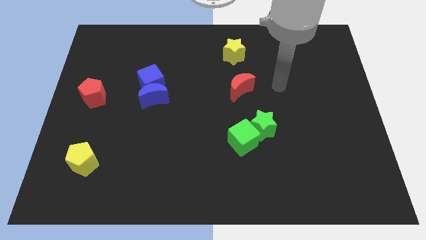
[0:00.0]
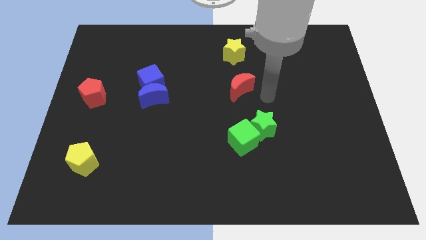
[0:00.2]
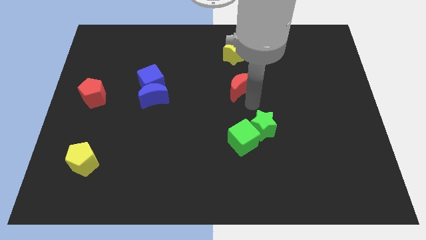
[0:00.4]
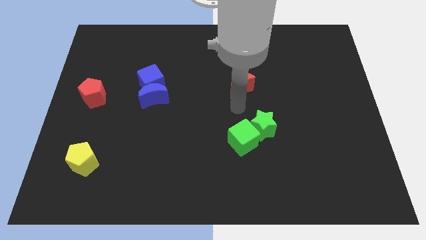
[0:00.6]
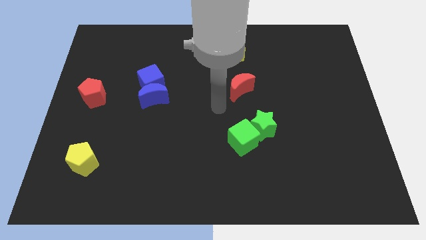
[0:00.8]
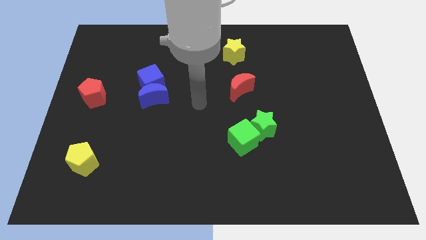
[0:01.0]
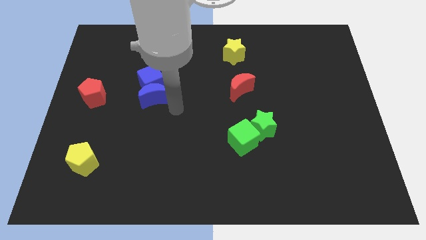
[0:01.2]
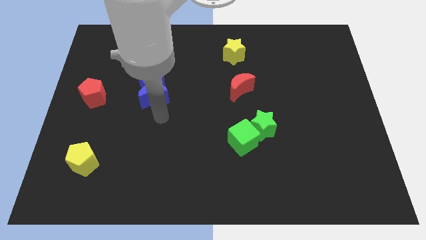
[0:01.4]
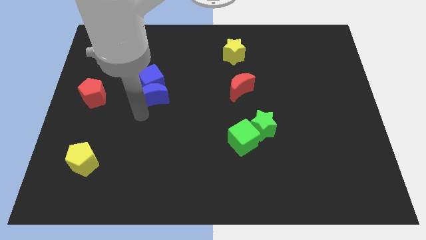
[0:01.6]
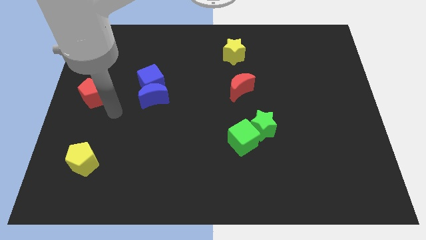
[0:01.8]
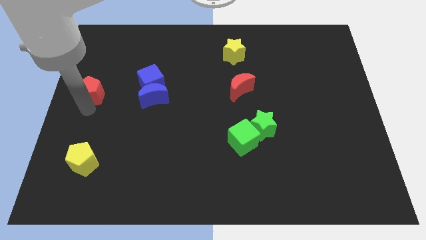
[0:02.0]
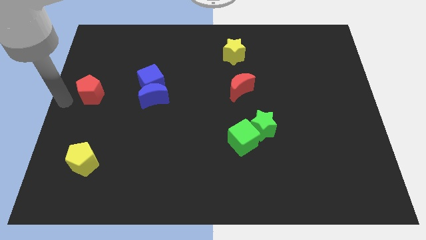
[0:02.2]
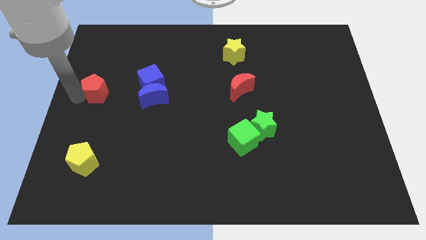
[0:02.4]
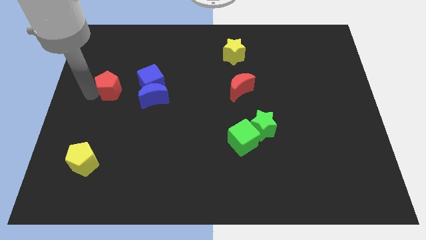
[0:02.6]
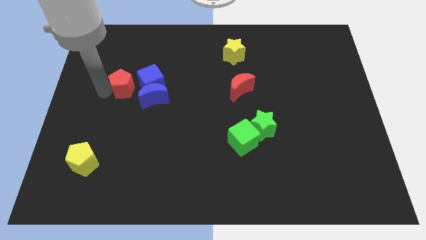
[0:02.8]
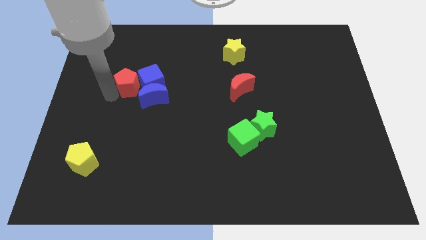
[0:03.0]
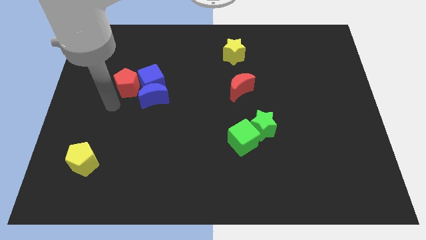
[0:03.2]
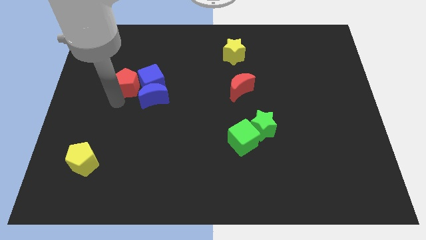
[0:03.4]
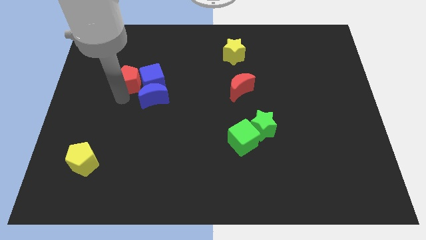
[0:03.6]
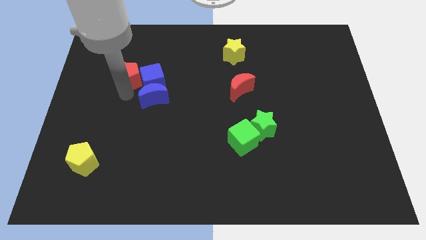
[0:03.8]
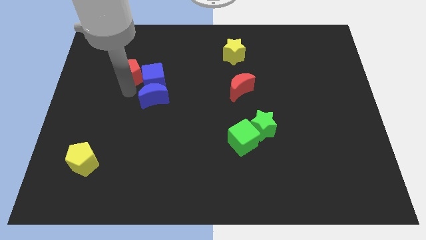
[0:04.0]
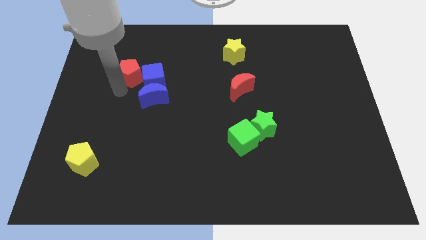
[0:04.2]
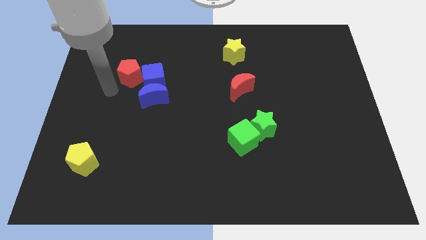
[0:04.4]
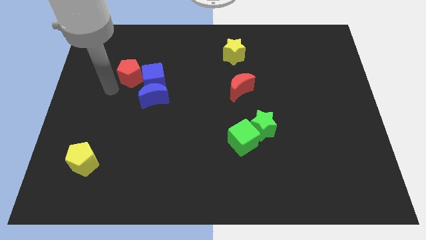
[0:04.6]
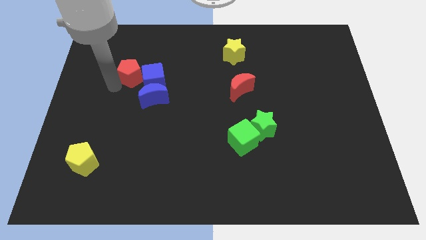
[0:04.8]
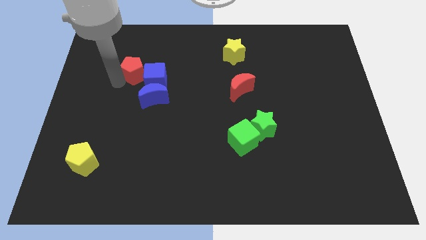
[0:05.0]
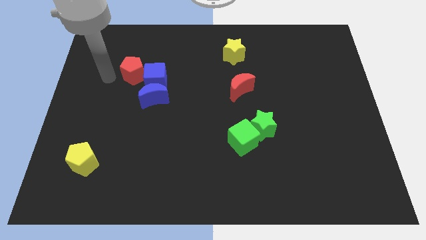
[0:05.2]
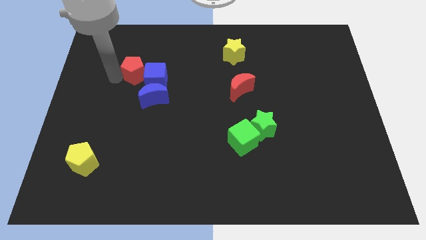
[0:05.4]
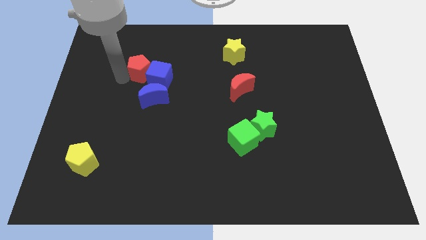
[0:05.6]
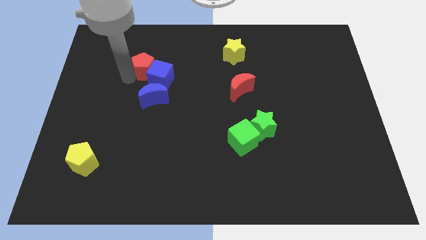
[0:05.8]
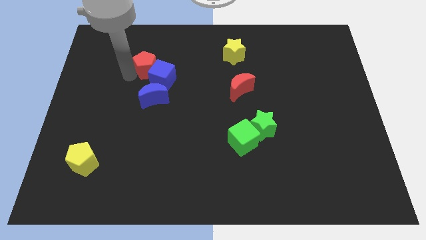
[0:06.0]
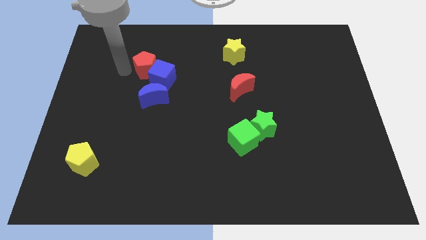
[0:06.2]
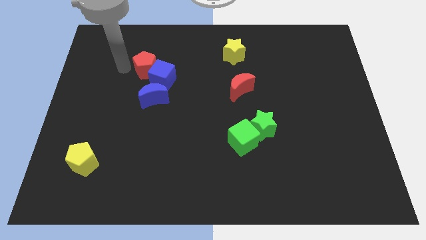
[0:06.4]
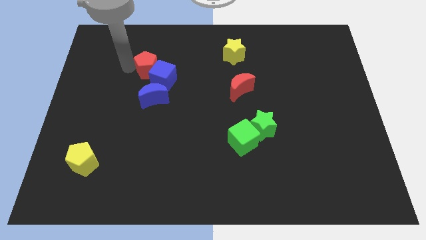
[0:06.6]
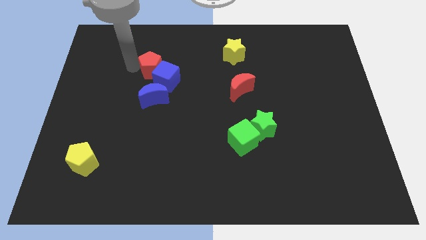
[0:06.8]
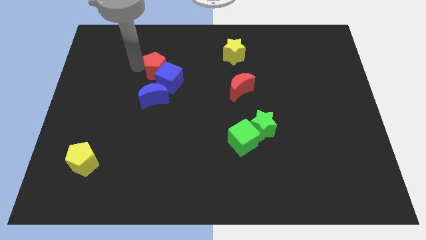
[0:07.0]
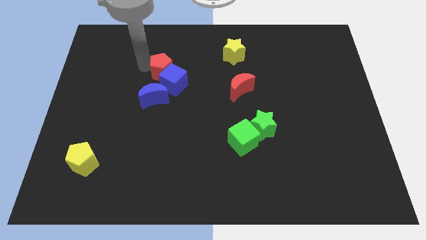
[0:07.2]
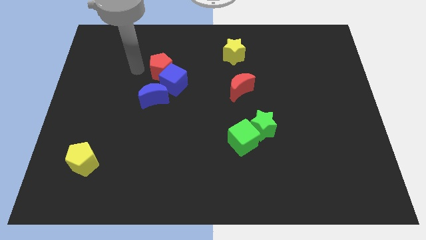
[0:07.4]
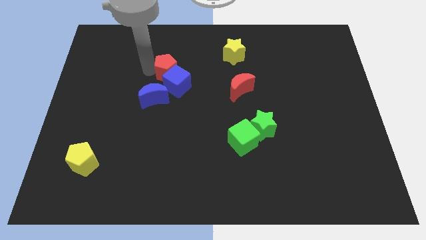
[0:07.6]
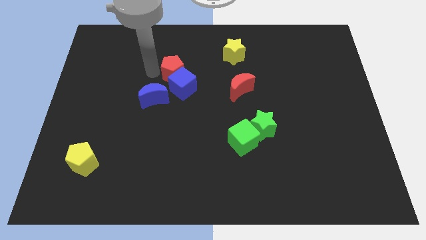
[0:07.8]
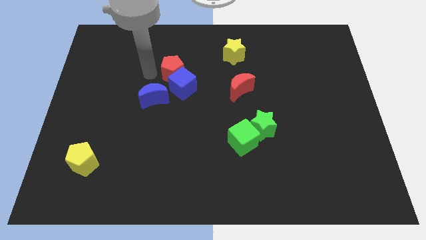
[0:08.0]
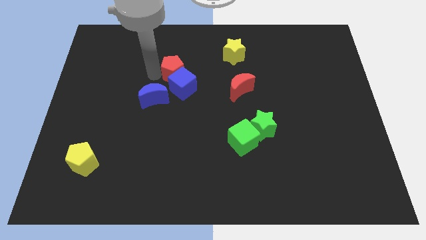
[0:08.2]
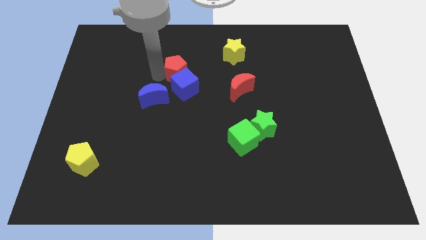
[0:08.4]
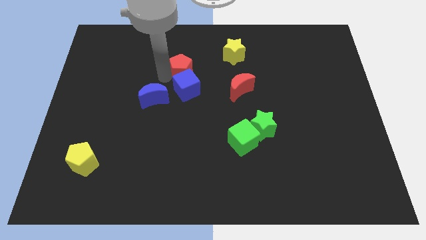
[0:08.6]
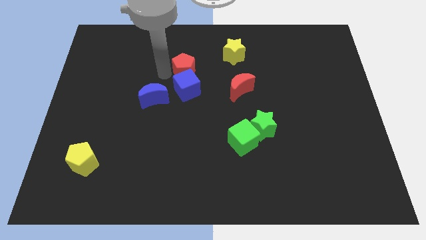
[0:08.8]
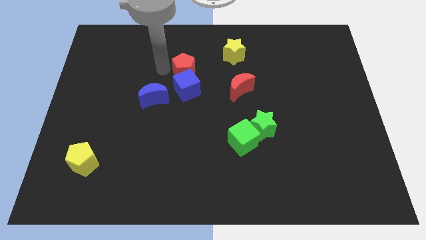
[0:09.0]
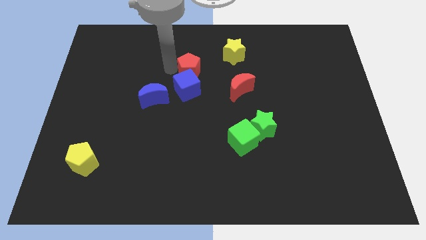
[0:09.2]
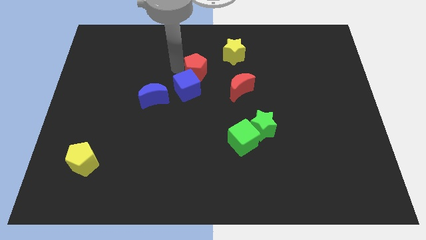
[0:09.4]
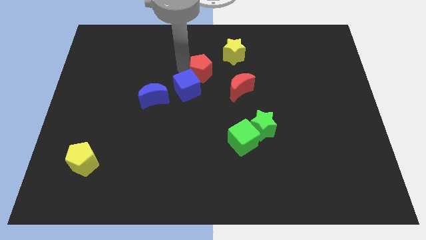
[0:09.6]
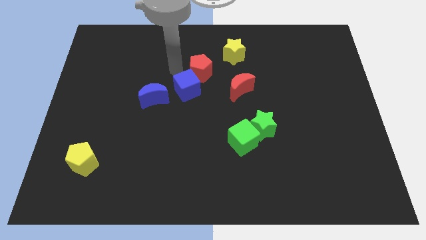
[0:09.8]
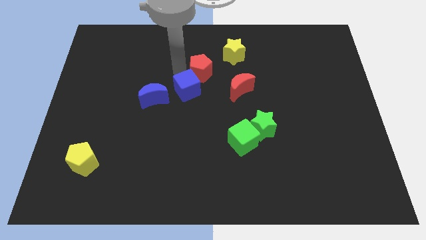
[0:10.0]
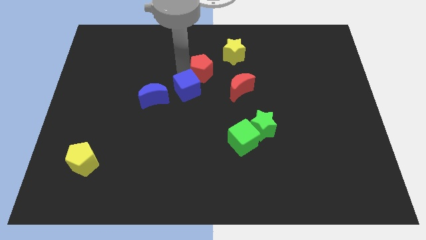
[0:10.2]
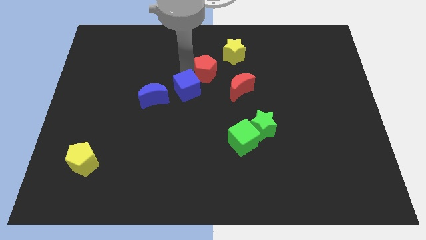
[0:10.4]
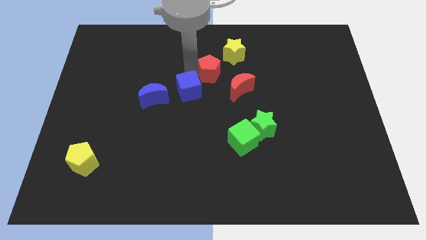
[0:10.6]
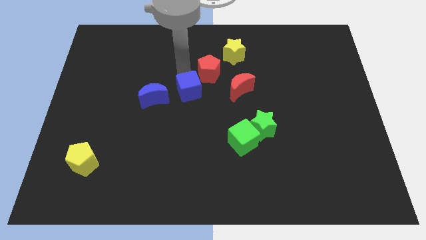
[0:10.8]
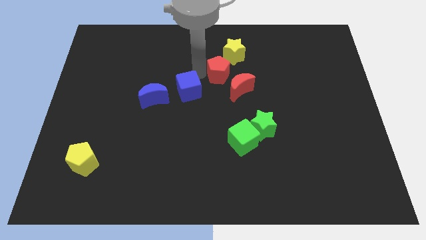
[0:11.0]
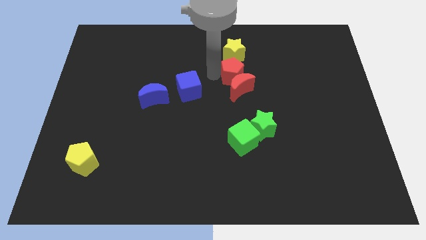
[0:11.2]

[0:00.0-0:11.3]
put the red pentagon to the top right of the red moon

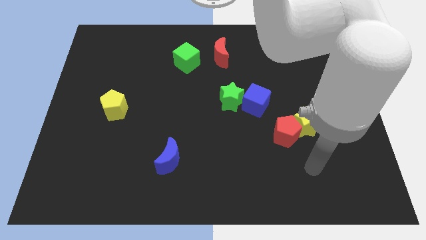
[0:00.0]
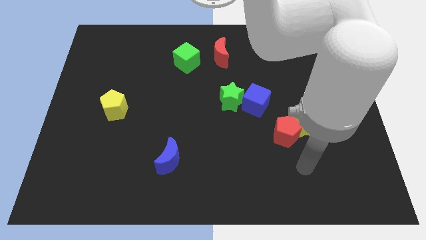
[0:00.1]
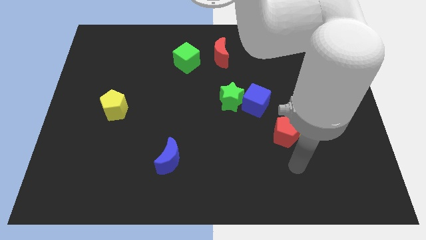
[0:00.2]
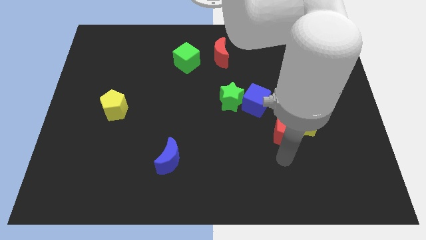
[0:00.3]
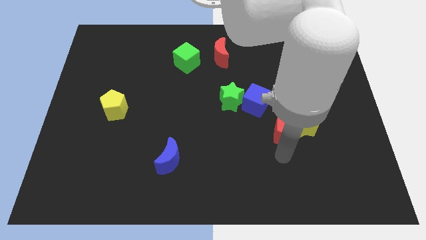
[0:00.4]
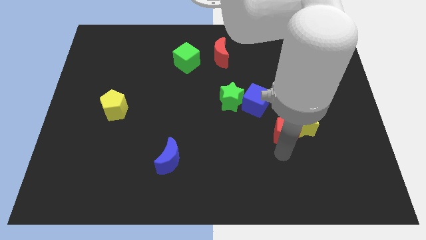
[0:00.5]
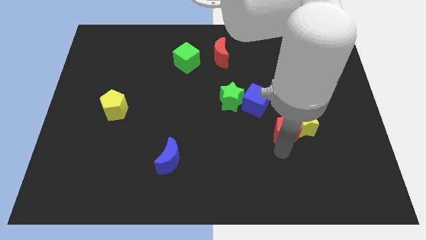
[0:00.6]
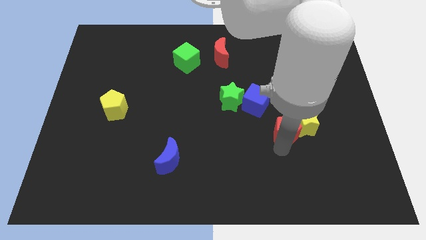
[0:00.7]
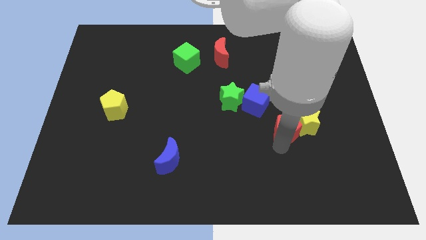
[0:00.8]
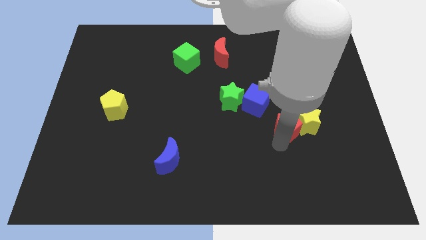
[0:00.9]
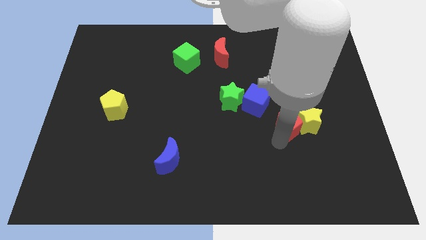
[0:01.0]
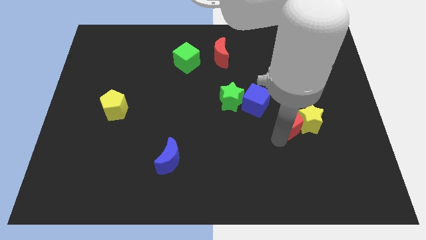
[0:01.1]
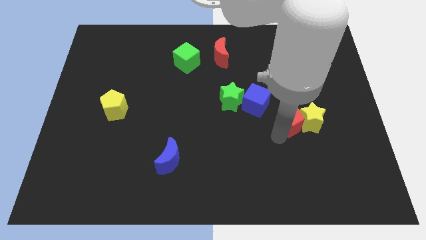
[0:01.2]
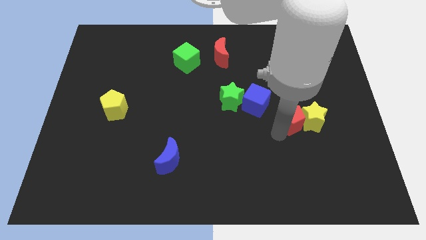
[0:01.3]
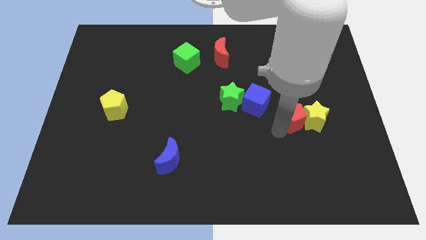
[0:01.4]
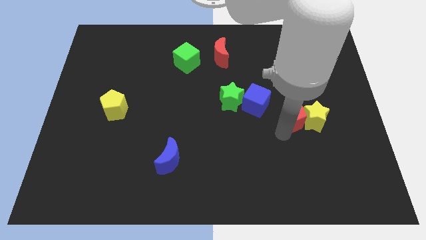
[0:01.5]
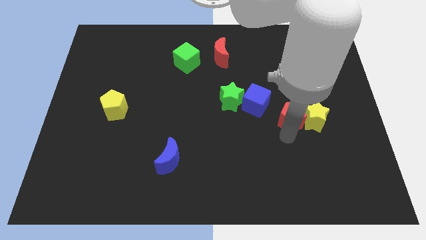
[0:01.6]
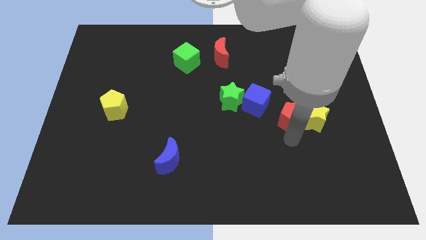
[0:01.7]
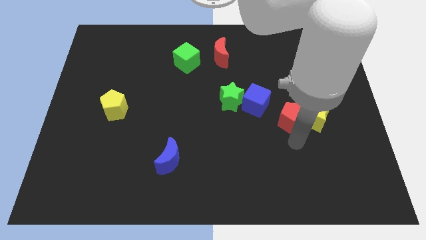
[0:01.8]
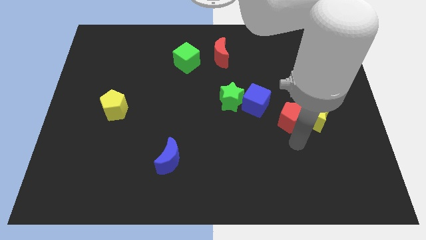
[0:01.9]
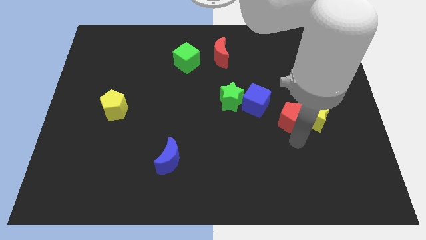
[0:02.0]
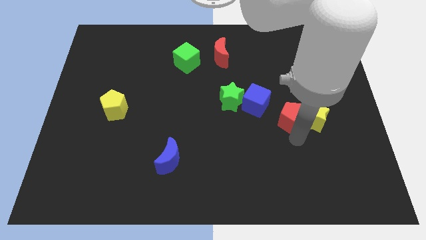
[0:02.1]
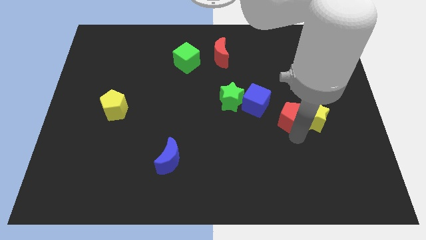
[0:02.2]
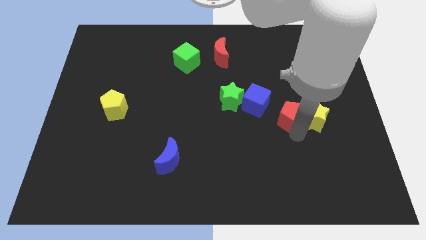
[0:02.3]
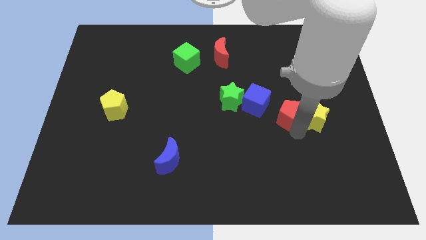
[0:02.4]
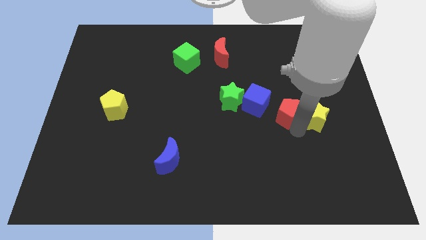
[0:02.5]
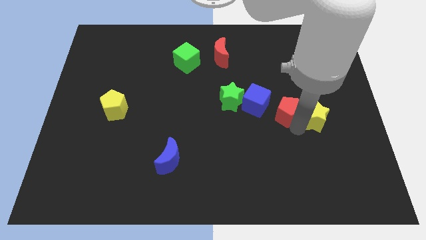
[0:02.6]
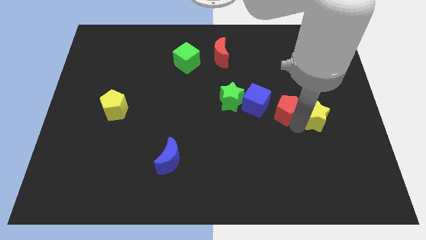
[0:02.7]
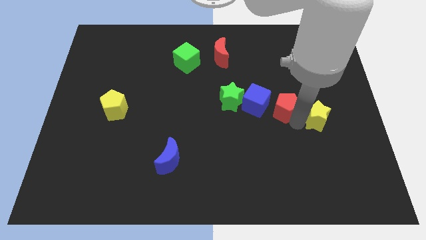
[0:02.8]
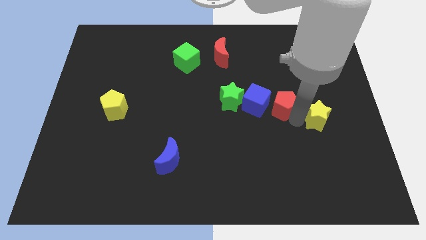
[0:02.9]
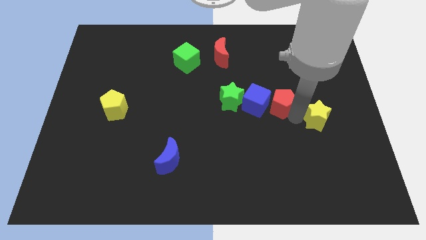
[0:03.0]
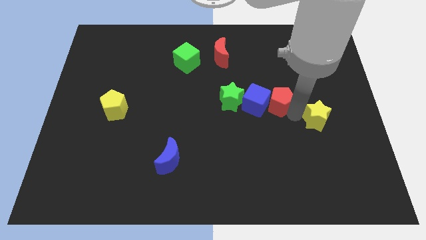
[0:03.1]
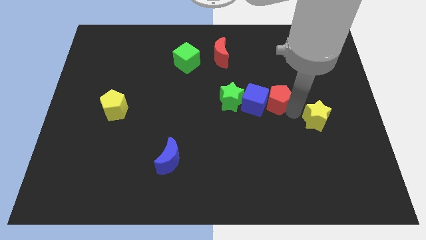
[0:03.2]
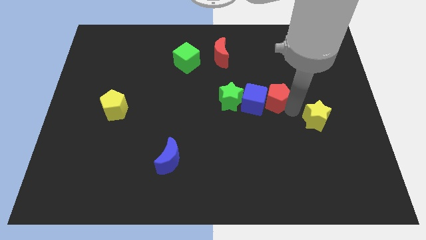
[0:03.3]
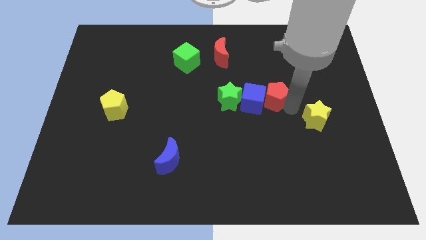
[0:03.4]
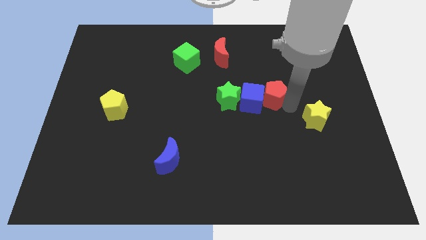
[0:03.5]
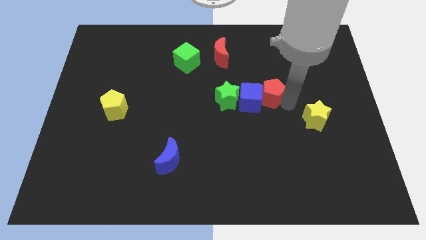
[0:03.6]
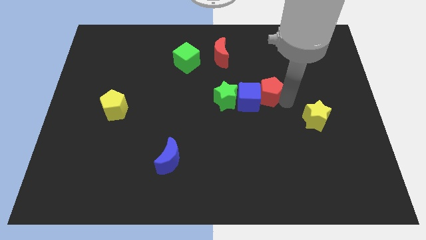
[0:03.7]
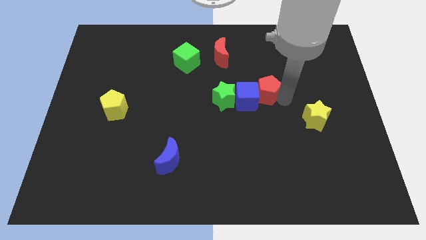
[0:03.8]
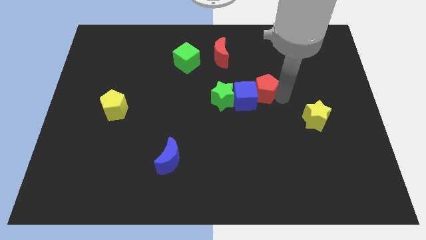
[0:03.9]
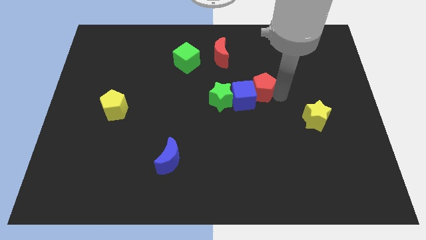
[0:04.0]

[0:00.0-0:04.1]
move the red pentagon diagonally up and to the right of the green star
